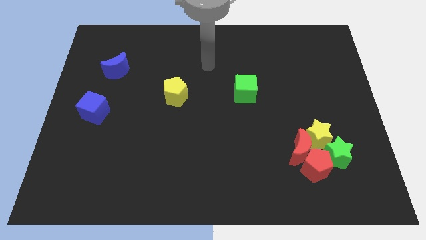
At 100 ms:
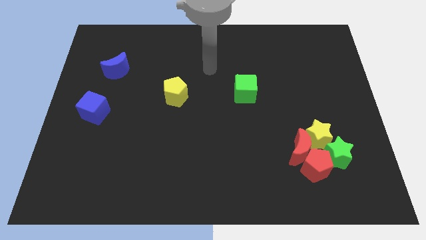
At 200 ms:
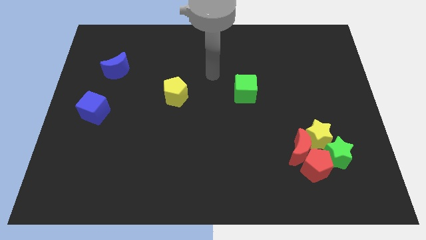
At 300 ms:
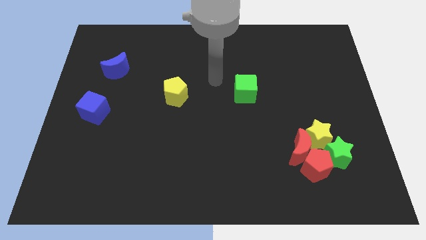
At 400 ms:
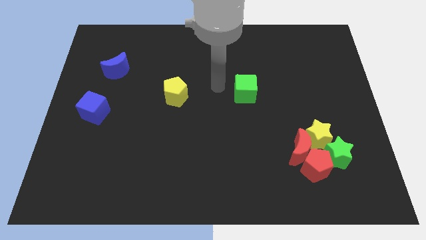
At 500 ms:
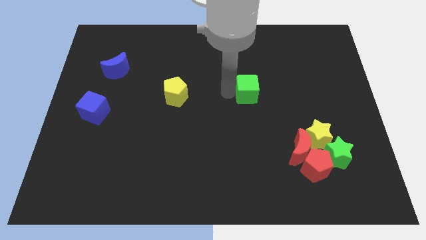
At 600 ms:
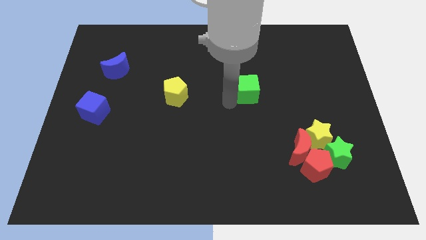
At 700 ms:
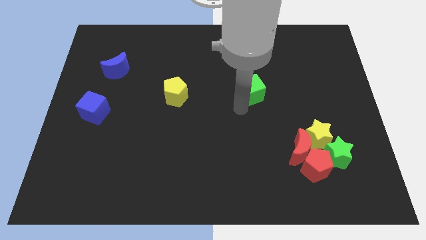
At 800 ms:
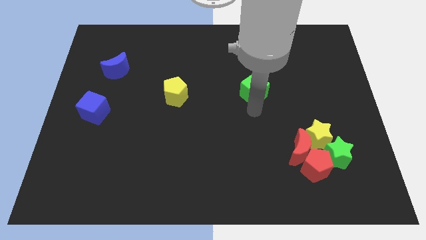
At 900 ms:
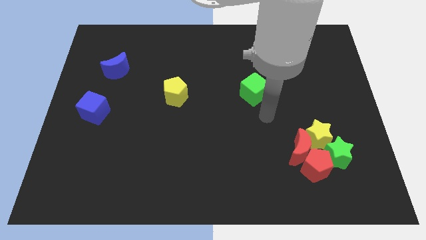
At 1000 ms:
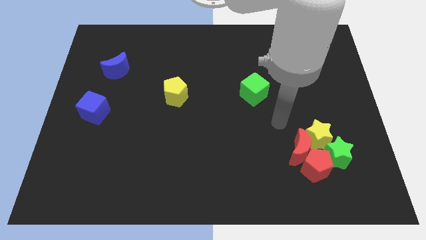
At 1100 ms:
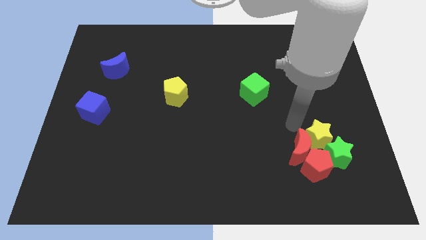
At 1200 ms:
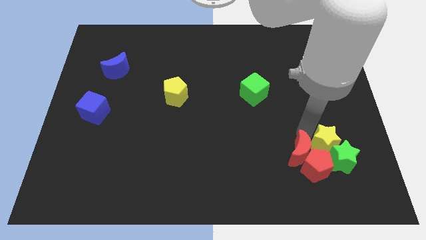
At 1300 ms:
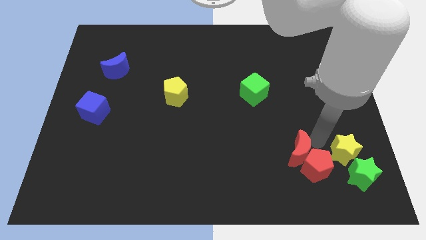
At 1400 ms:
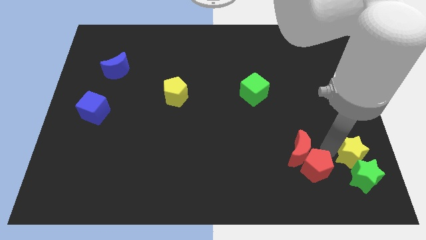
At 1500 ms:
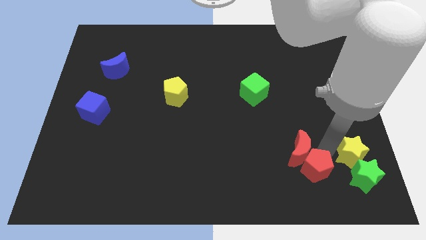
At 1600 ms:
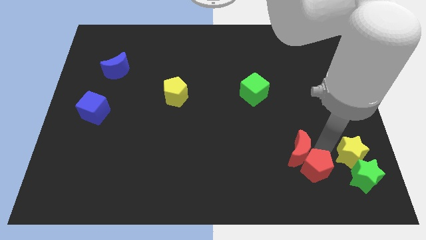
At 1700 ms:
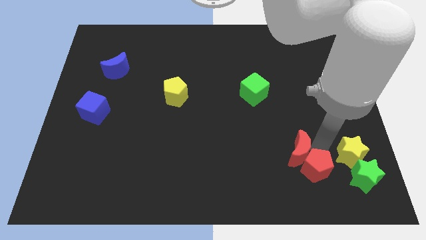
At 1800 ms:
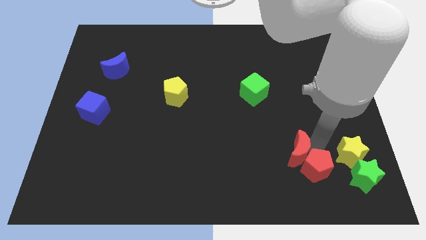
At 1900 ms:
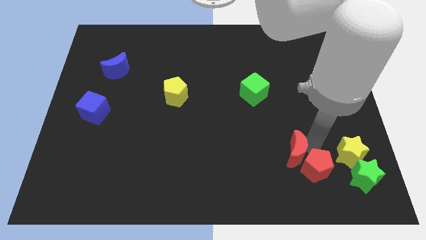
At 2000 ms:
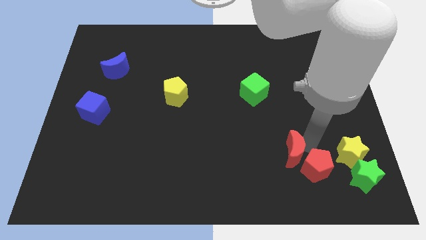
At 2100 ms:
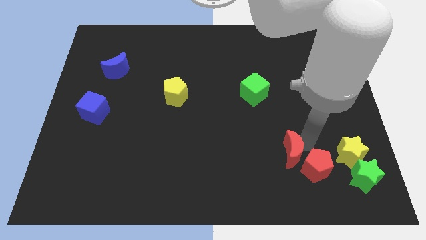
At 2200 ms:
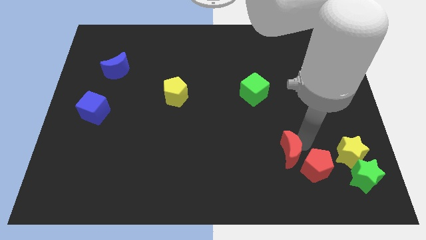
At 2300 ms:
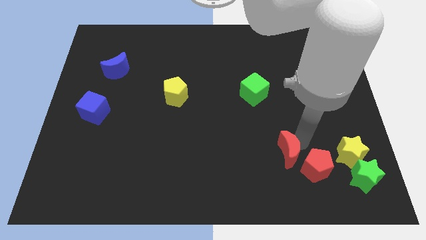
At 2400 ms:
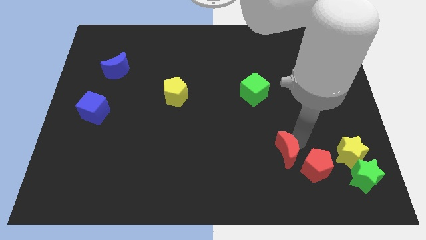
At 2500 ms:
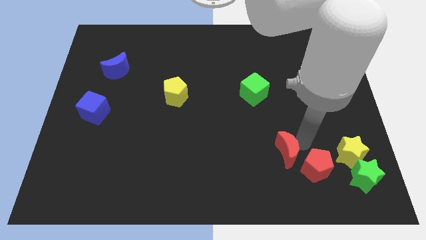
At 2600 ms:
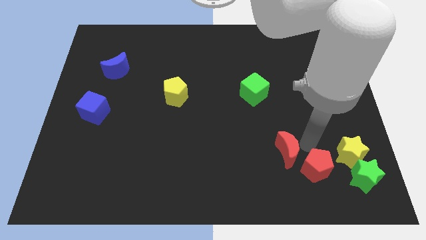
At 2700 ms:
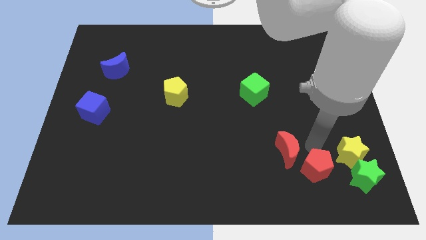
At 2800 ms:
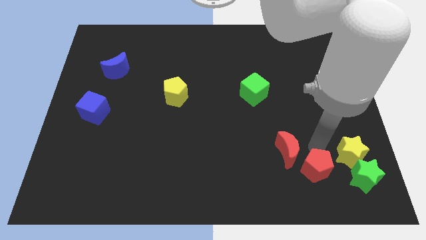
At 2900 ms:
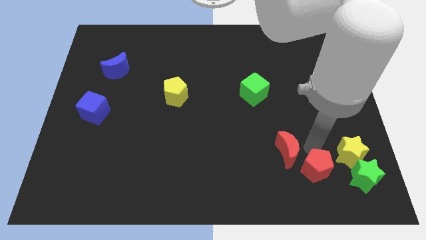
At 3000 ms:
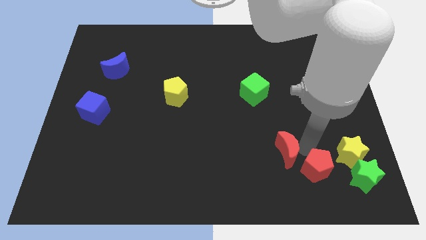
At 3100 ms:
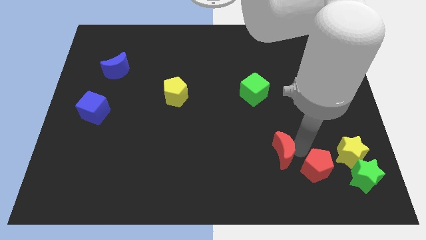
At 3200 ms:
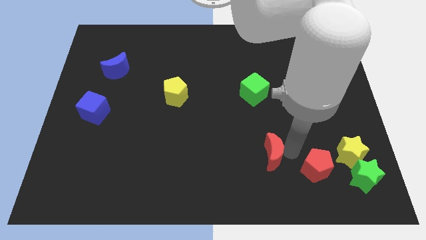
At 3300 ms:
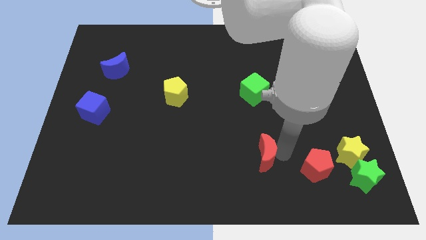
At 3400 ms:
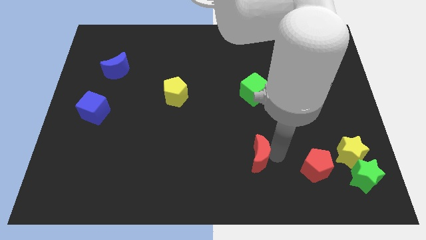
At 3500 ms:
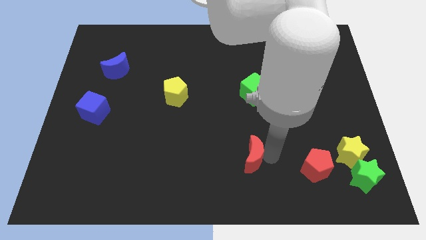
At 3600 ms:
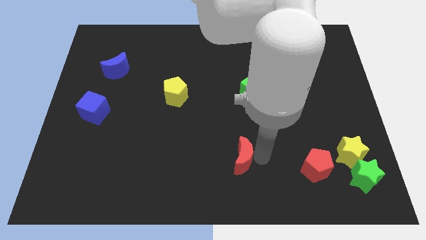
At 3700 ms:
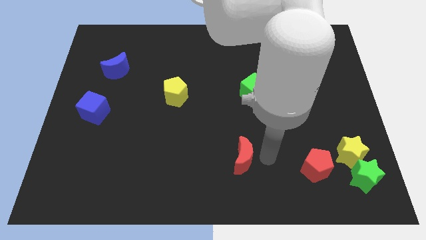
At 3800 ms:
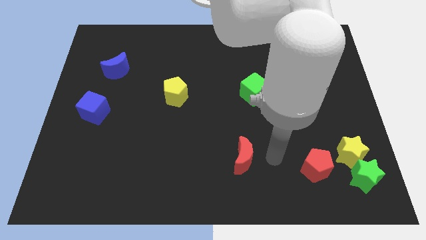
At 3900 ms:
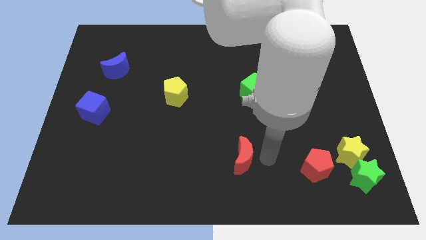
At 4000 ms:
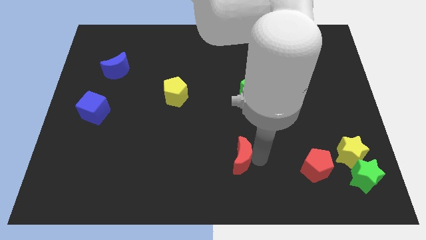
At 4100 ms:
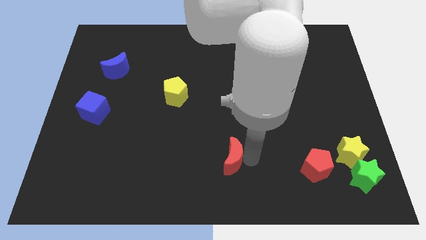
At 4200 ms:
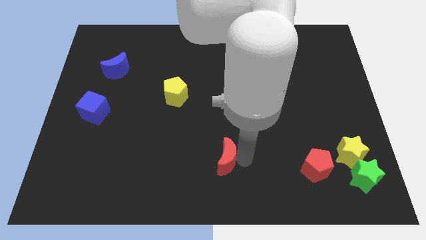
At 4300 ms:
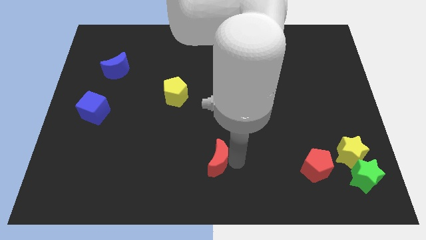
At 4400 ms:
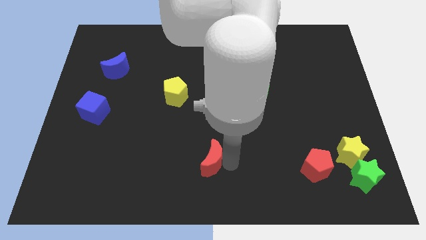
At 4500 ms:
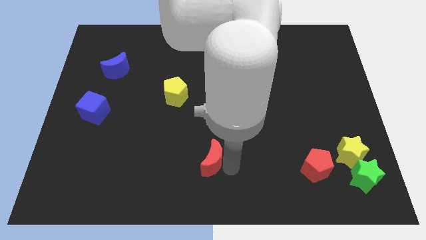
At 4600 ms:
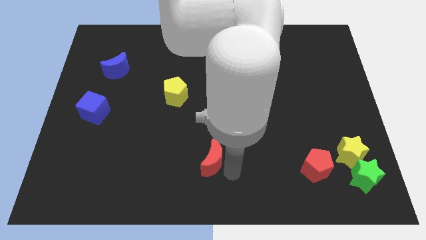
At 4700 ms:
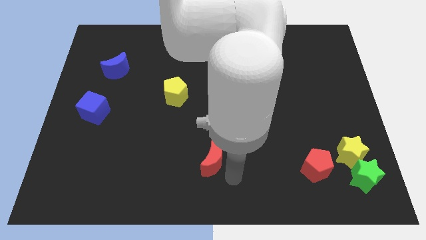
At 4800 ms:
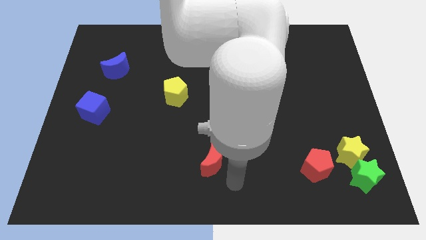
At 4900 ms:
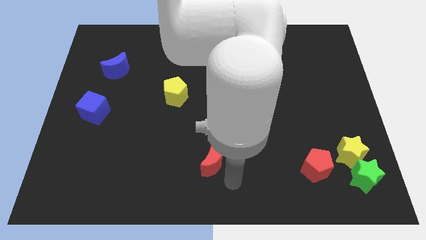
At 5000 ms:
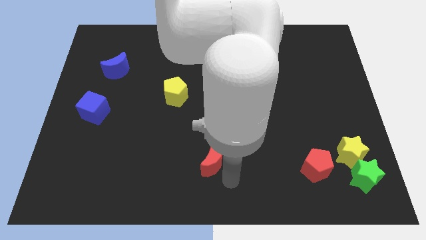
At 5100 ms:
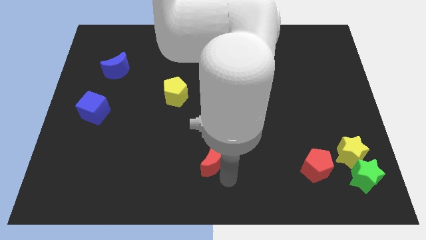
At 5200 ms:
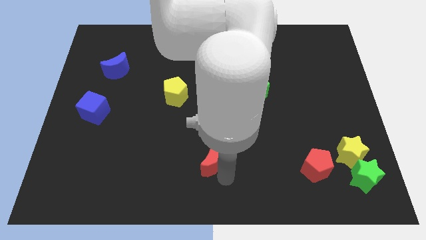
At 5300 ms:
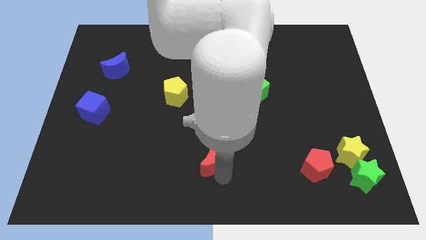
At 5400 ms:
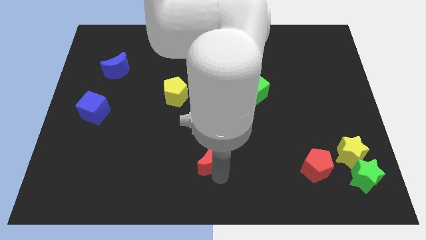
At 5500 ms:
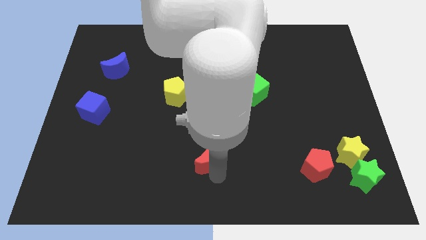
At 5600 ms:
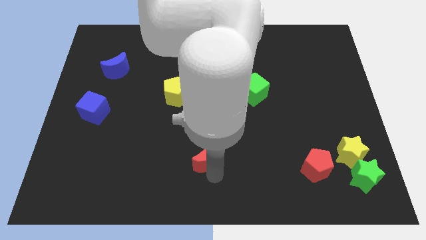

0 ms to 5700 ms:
move the red moon left

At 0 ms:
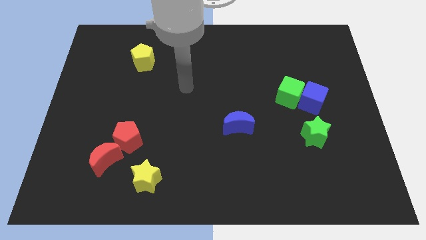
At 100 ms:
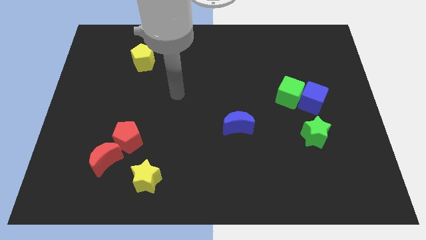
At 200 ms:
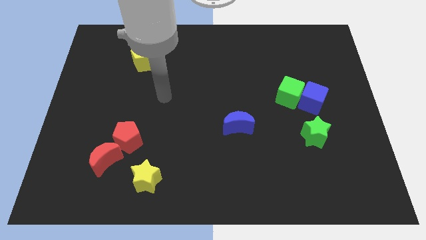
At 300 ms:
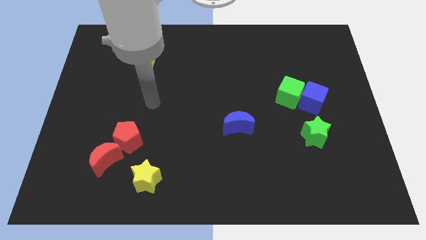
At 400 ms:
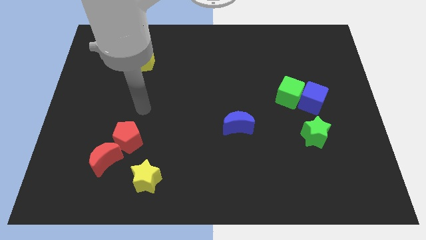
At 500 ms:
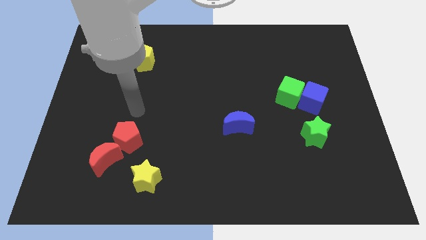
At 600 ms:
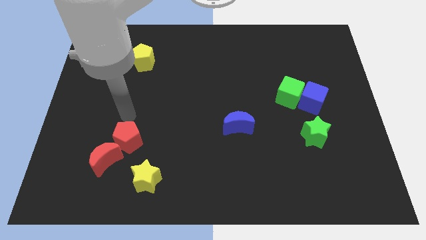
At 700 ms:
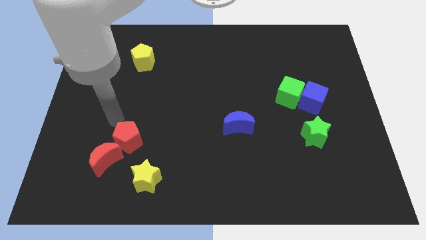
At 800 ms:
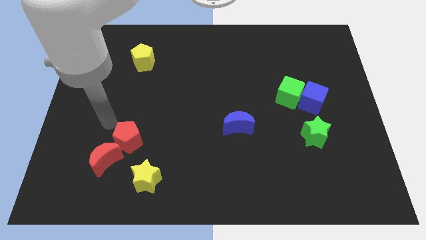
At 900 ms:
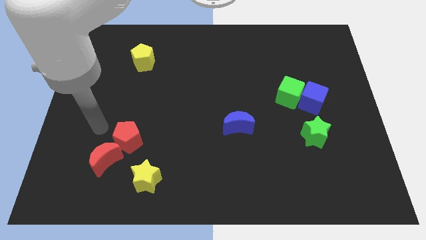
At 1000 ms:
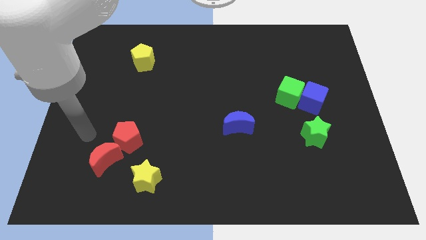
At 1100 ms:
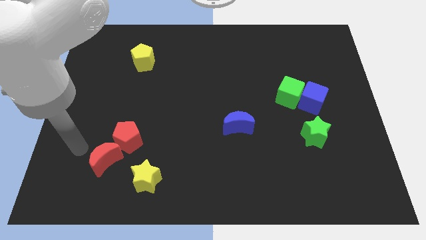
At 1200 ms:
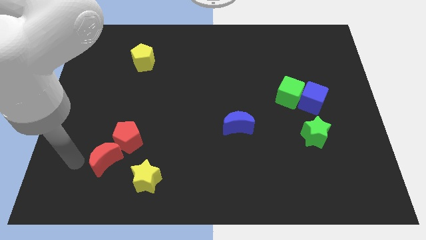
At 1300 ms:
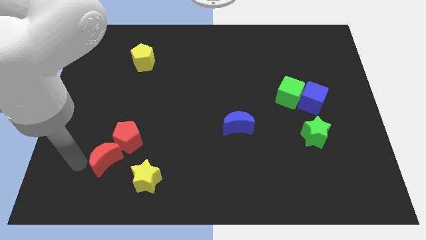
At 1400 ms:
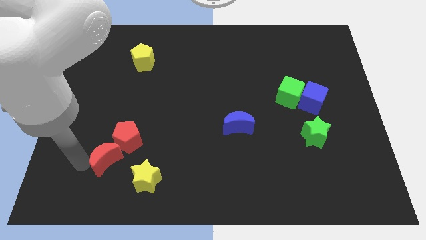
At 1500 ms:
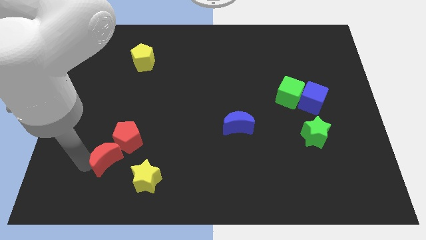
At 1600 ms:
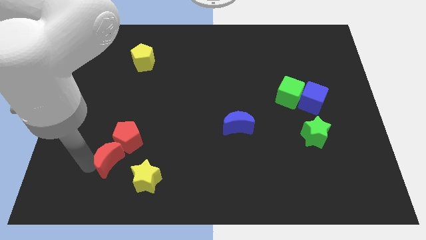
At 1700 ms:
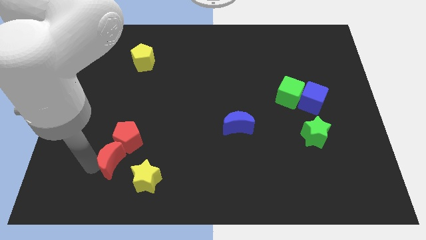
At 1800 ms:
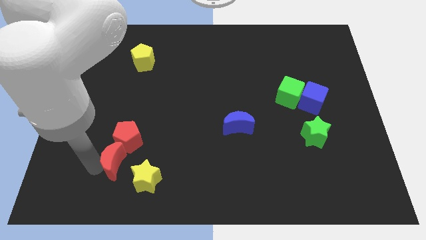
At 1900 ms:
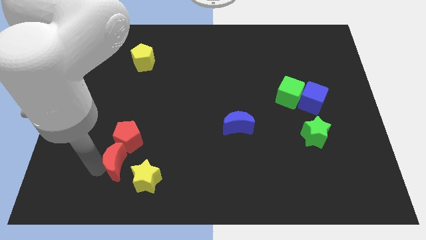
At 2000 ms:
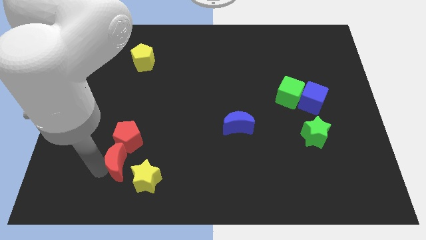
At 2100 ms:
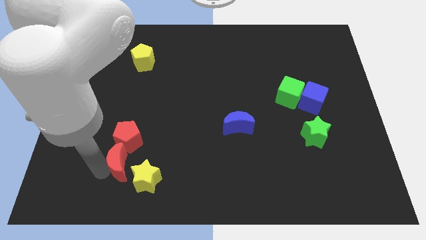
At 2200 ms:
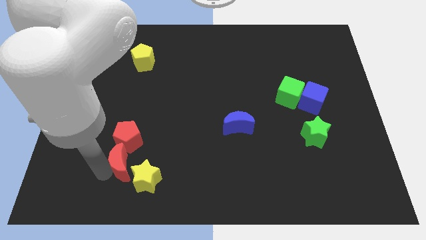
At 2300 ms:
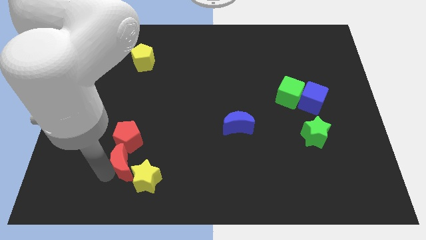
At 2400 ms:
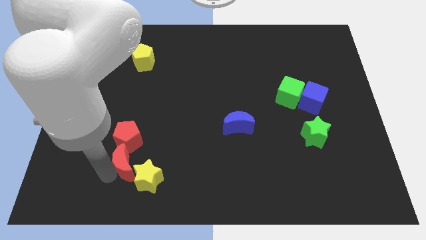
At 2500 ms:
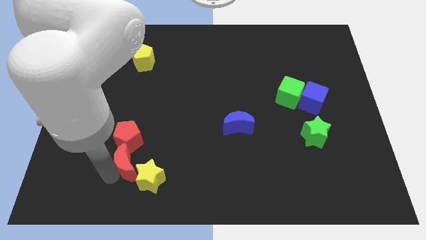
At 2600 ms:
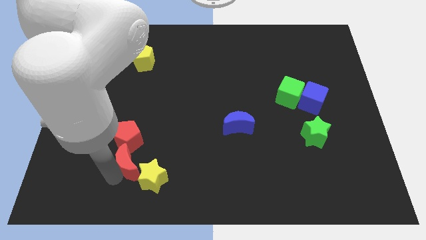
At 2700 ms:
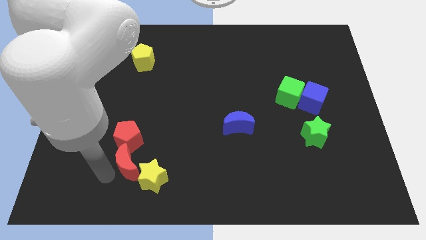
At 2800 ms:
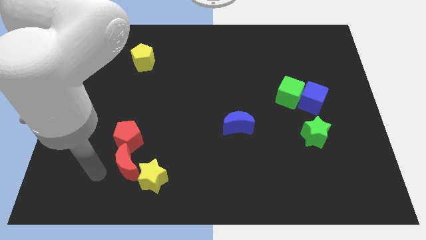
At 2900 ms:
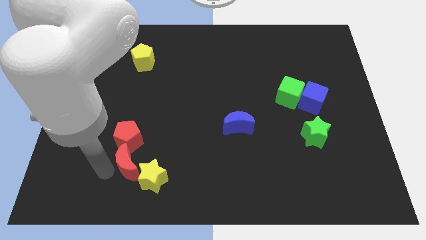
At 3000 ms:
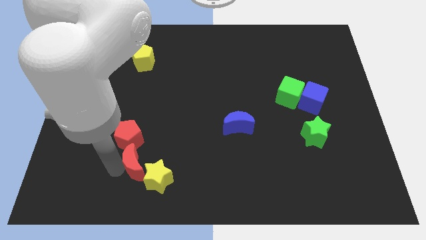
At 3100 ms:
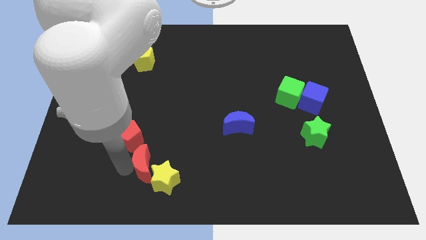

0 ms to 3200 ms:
slide the red moon right a little
